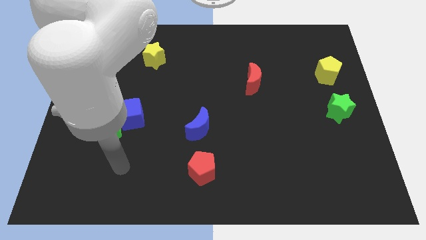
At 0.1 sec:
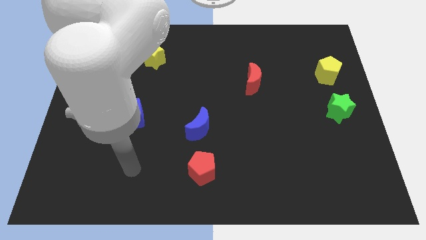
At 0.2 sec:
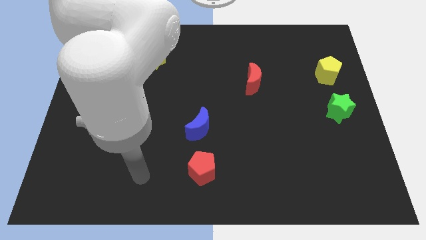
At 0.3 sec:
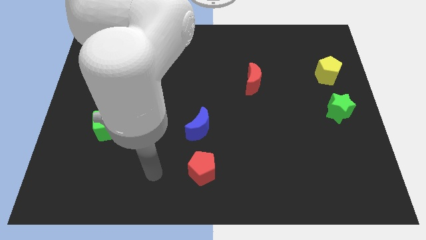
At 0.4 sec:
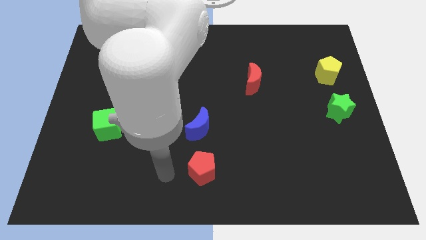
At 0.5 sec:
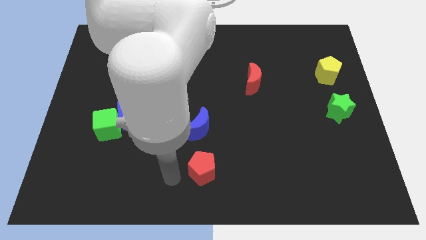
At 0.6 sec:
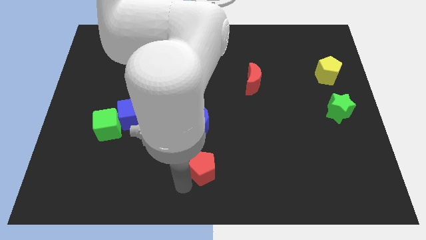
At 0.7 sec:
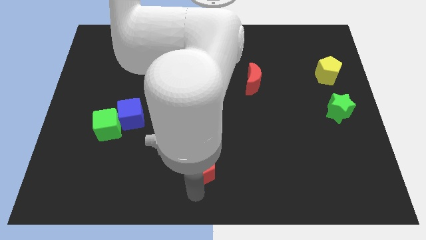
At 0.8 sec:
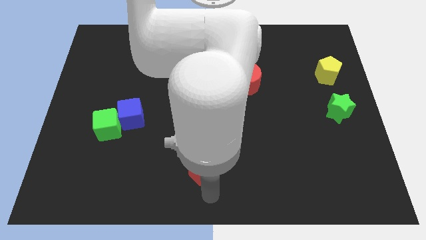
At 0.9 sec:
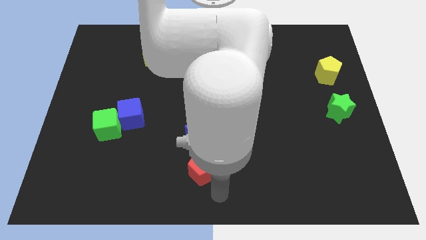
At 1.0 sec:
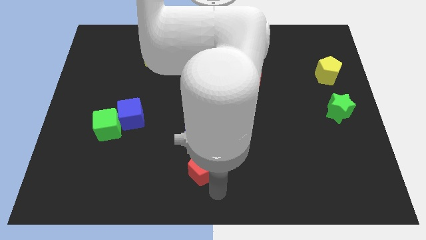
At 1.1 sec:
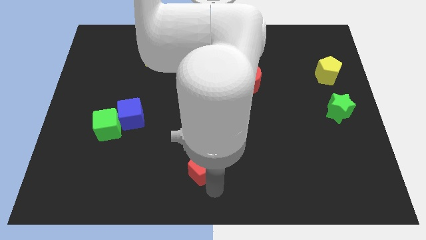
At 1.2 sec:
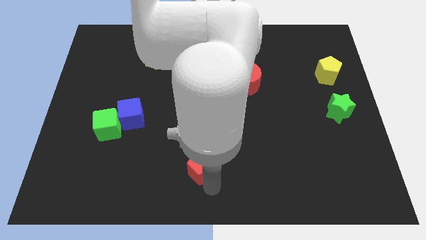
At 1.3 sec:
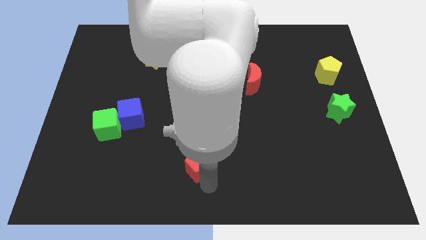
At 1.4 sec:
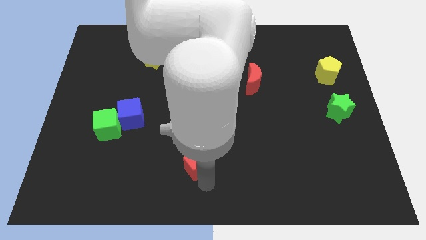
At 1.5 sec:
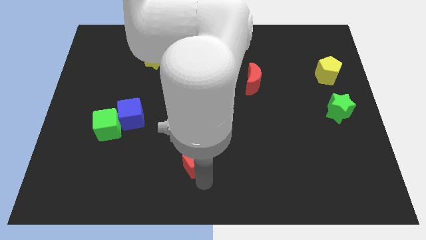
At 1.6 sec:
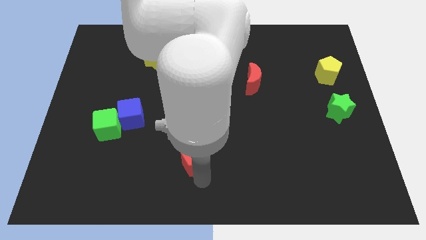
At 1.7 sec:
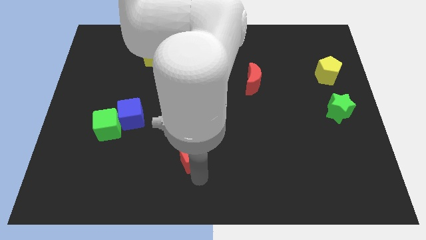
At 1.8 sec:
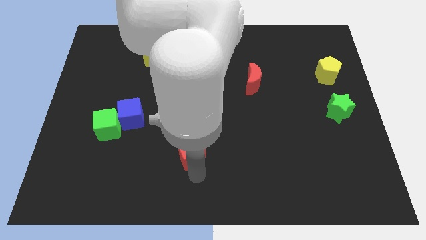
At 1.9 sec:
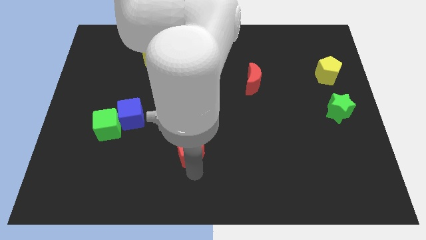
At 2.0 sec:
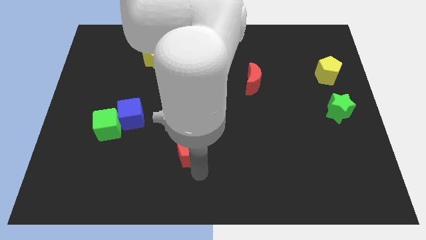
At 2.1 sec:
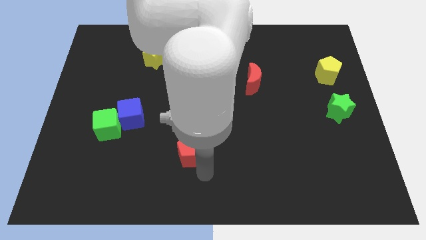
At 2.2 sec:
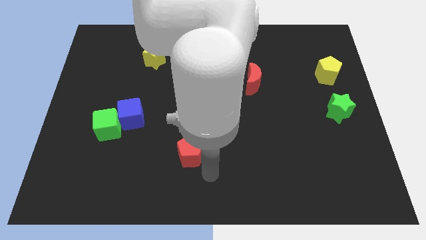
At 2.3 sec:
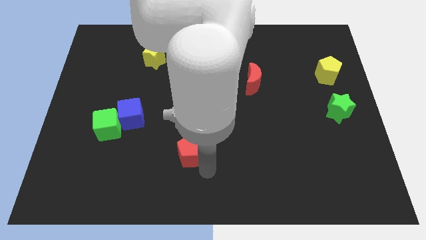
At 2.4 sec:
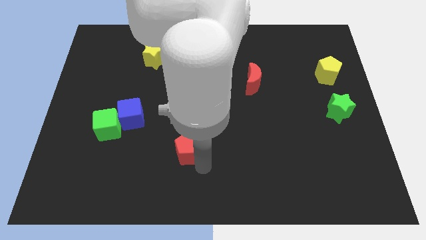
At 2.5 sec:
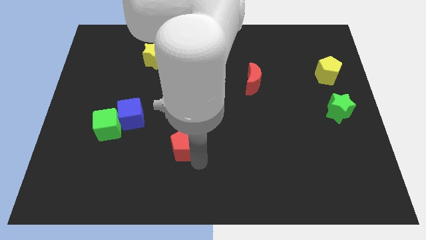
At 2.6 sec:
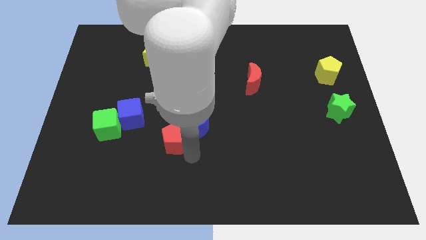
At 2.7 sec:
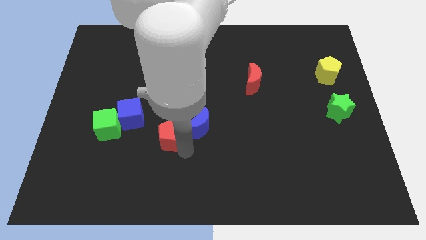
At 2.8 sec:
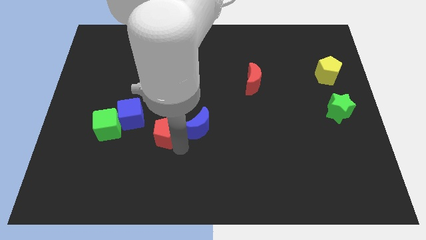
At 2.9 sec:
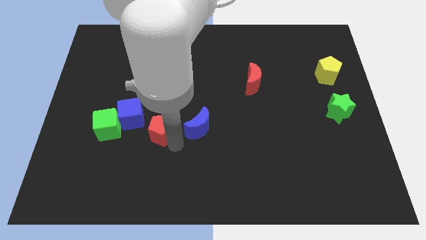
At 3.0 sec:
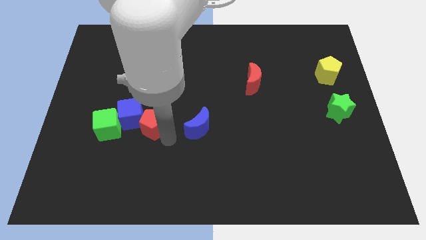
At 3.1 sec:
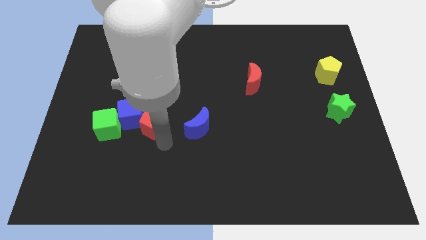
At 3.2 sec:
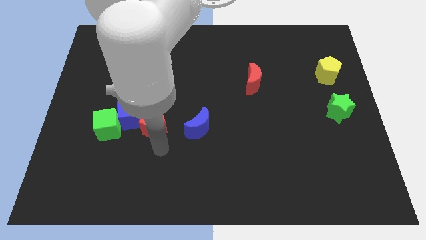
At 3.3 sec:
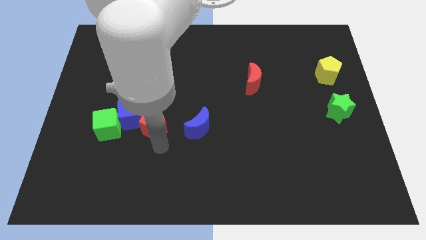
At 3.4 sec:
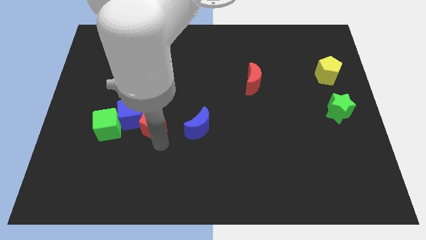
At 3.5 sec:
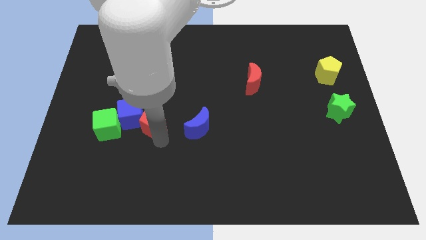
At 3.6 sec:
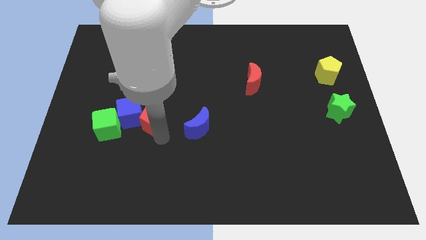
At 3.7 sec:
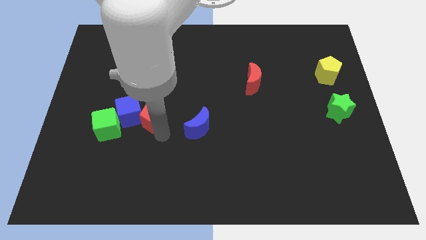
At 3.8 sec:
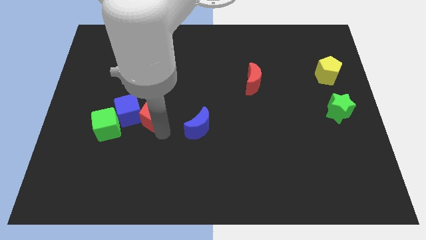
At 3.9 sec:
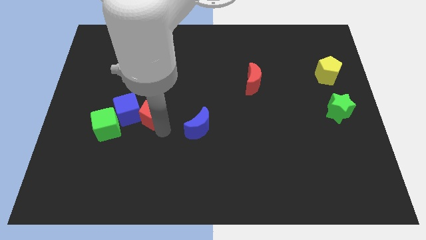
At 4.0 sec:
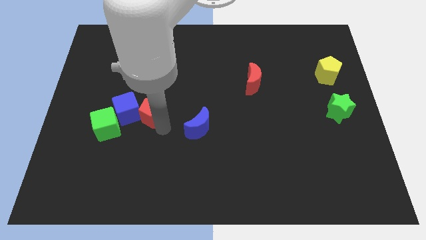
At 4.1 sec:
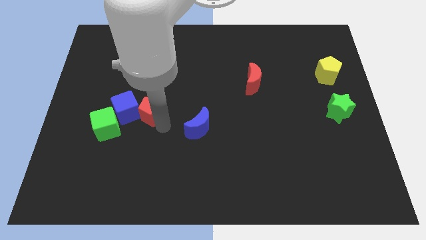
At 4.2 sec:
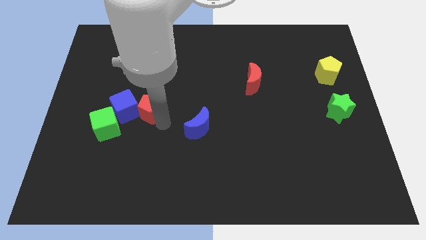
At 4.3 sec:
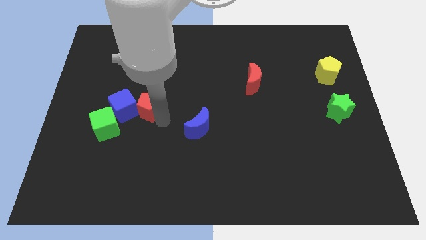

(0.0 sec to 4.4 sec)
slide the red pentagon upwards and then left

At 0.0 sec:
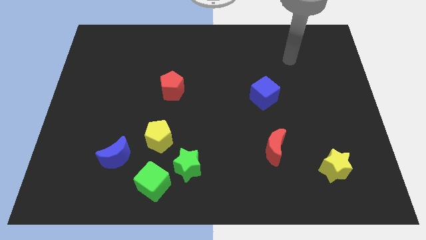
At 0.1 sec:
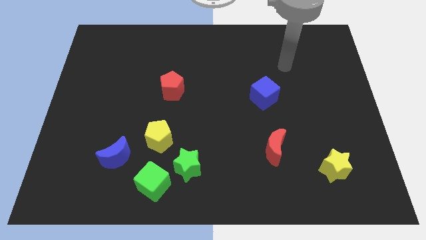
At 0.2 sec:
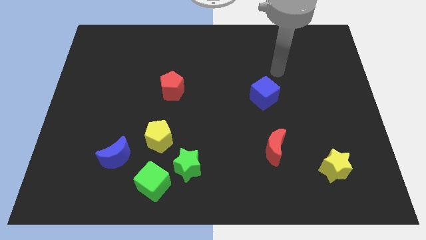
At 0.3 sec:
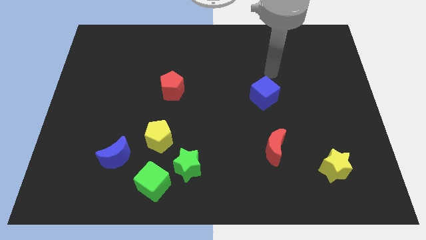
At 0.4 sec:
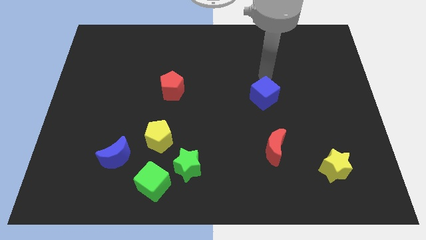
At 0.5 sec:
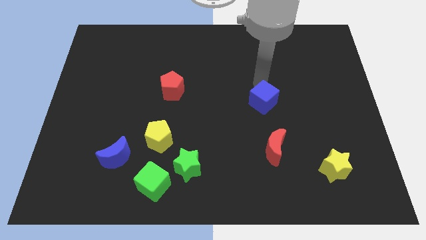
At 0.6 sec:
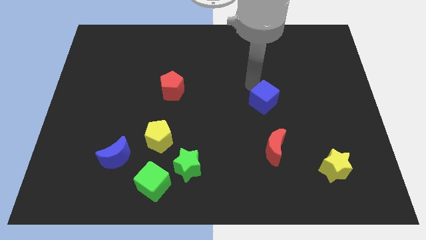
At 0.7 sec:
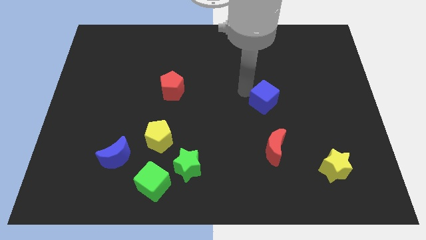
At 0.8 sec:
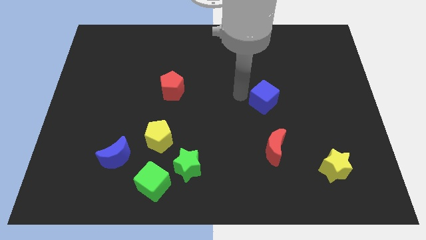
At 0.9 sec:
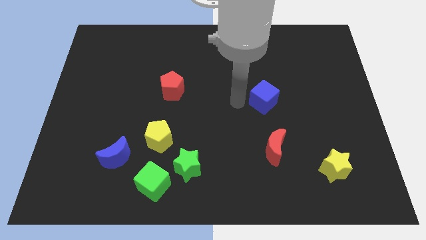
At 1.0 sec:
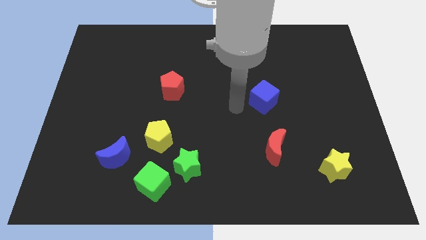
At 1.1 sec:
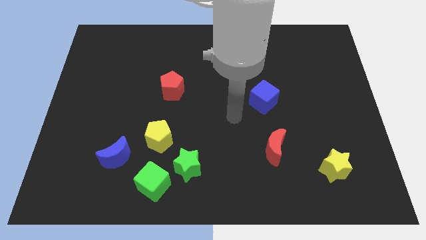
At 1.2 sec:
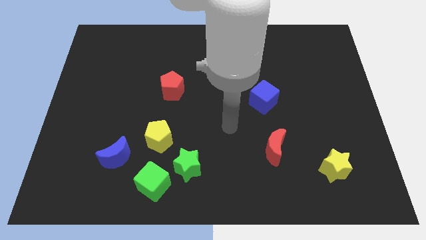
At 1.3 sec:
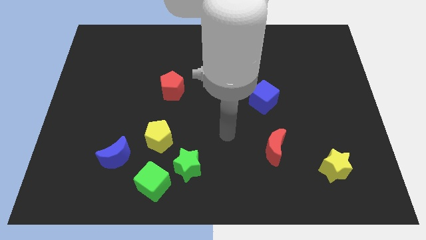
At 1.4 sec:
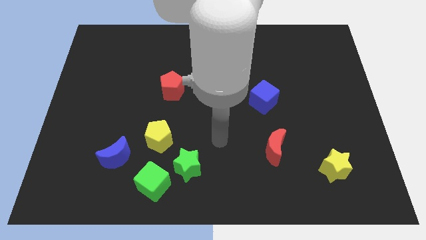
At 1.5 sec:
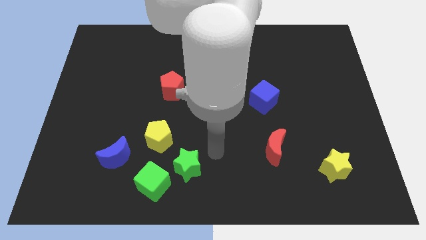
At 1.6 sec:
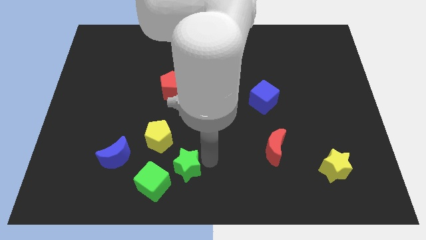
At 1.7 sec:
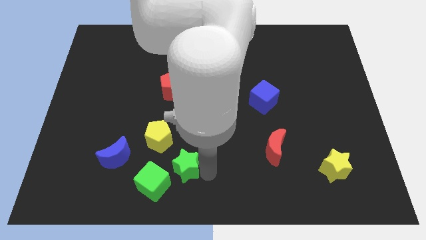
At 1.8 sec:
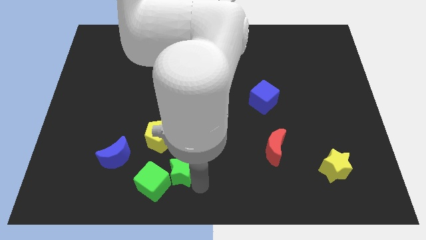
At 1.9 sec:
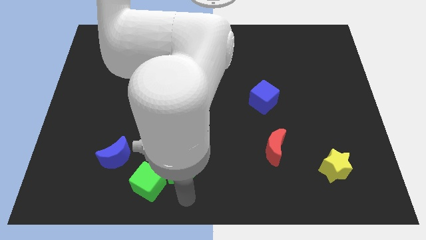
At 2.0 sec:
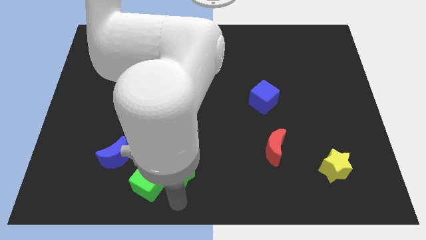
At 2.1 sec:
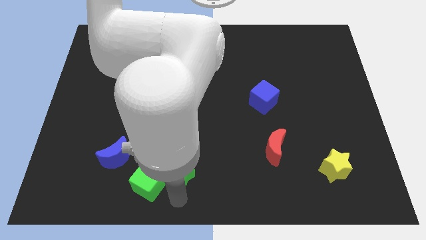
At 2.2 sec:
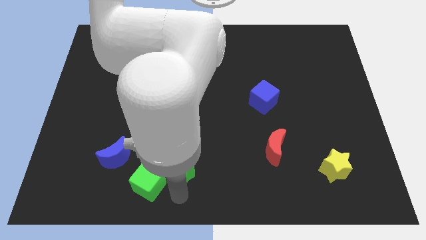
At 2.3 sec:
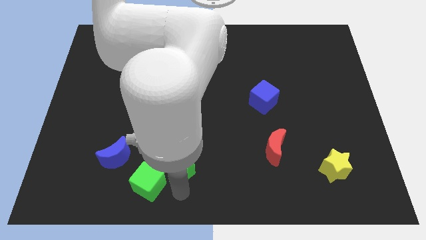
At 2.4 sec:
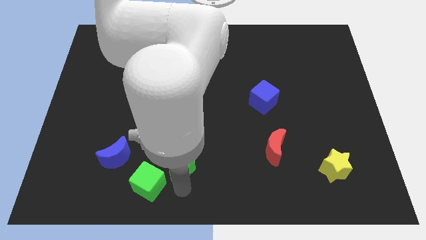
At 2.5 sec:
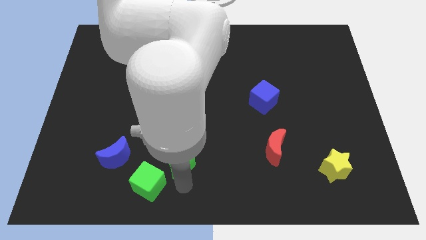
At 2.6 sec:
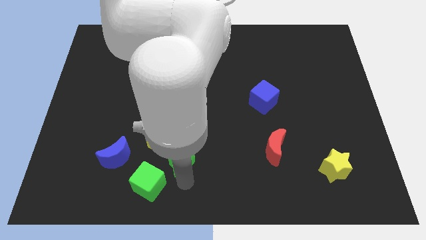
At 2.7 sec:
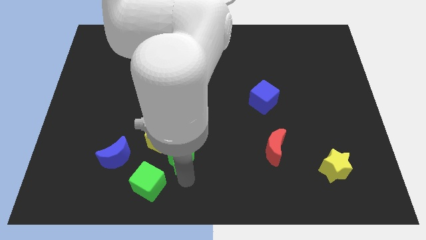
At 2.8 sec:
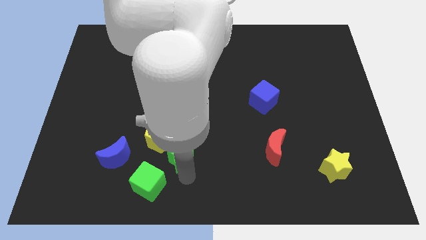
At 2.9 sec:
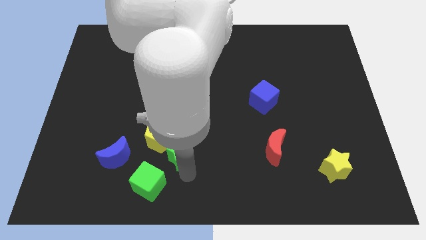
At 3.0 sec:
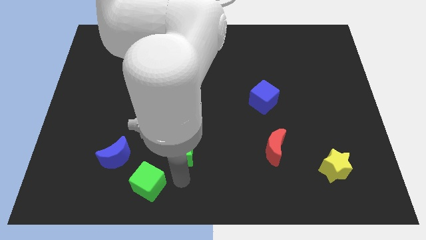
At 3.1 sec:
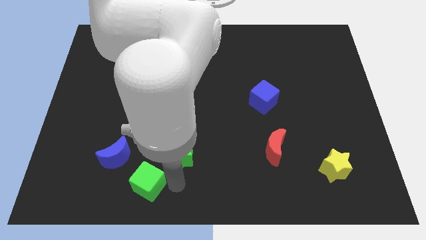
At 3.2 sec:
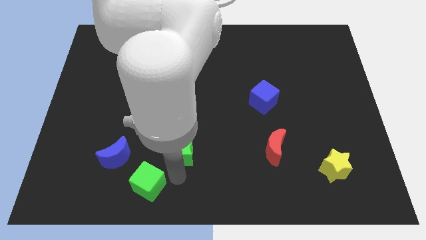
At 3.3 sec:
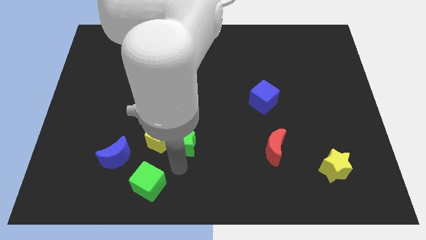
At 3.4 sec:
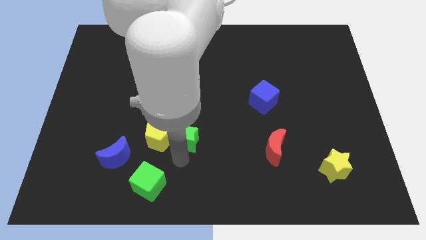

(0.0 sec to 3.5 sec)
move the green star somewhat upwards
